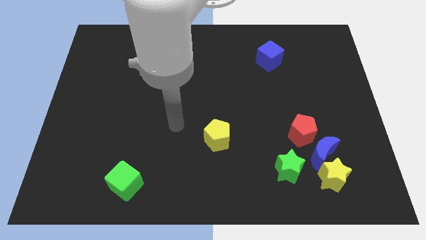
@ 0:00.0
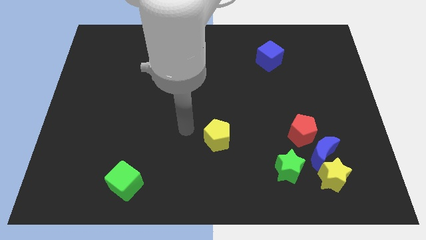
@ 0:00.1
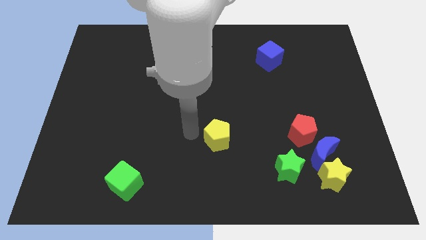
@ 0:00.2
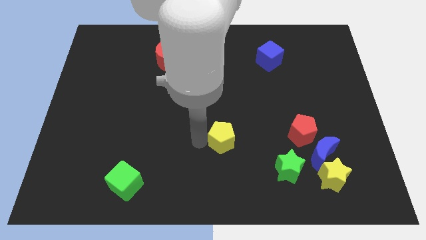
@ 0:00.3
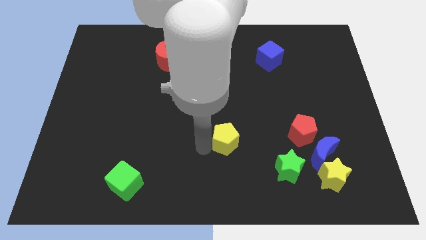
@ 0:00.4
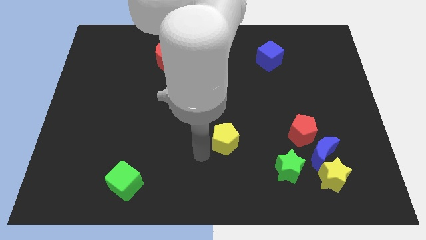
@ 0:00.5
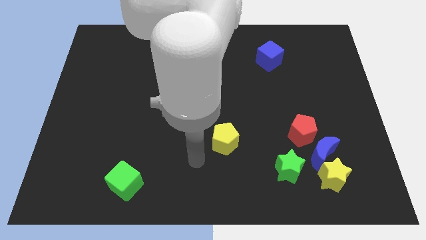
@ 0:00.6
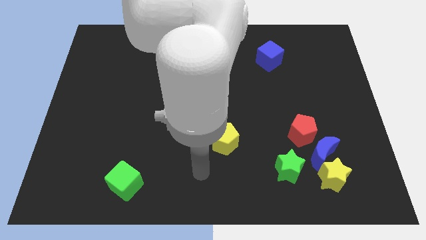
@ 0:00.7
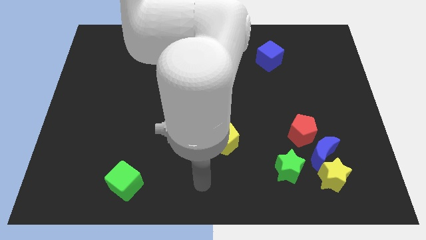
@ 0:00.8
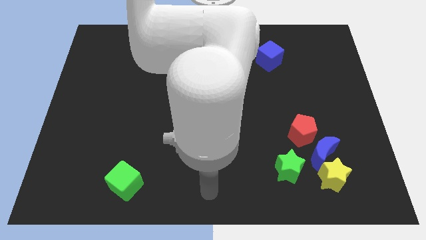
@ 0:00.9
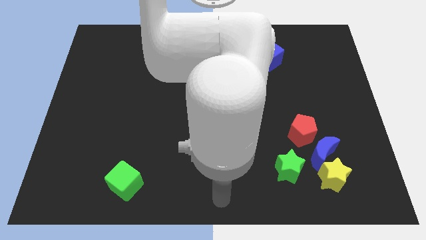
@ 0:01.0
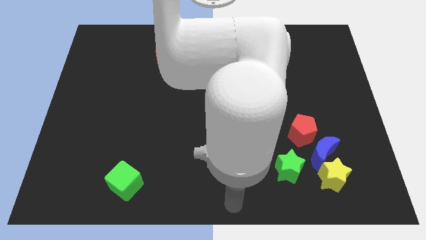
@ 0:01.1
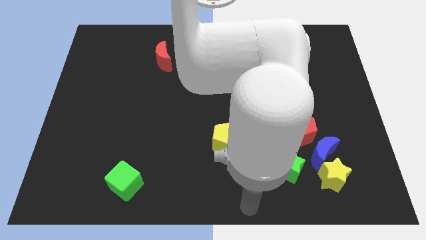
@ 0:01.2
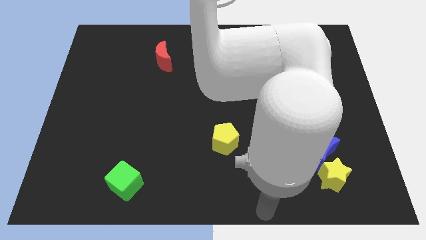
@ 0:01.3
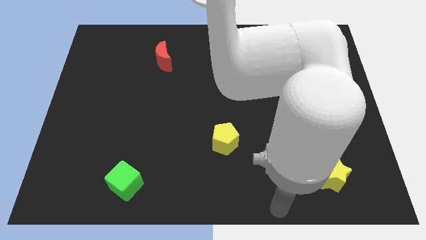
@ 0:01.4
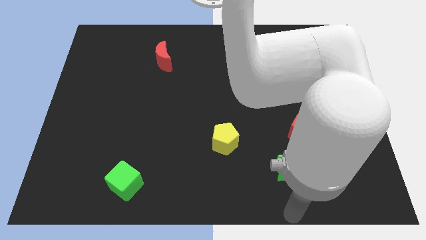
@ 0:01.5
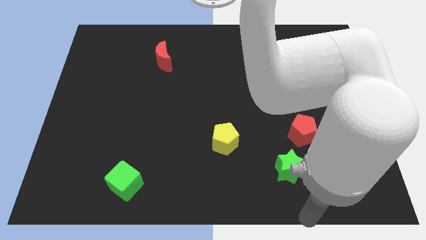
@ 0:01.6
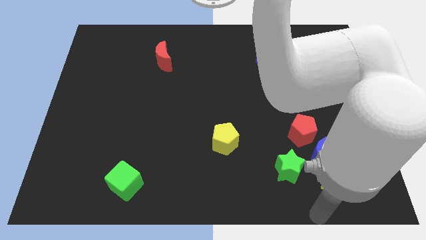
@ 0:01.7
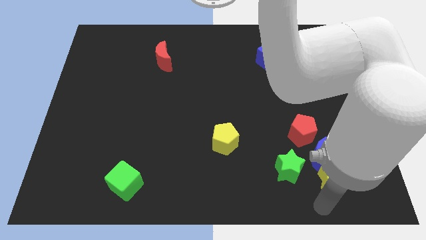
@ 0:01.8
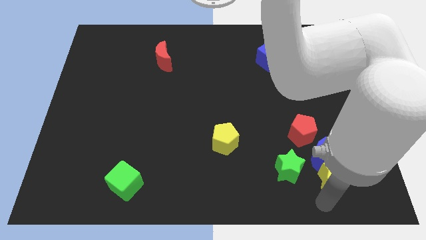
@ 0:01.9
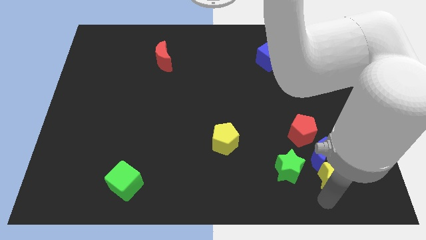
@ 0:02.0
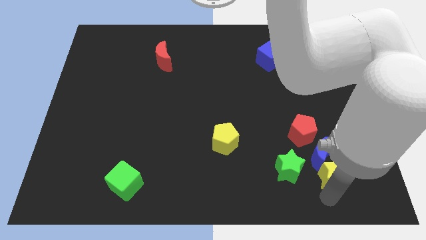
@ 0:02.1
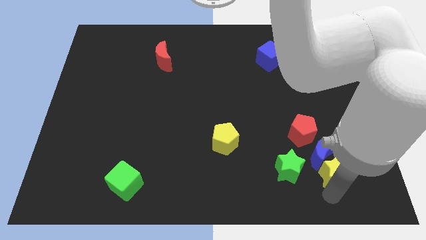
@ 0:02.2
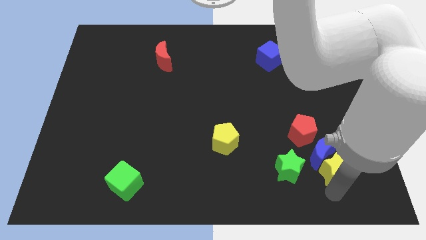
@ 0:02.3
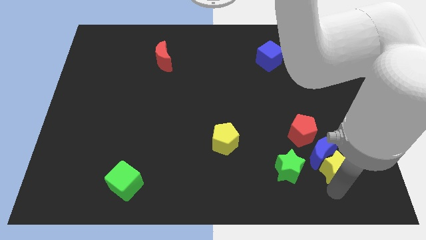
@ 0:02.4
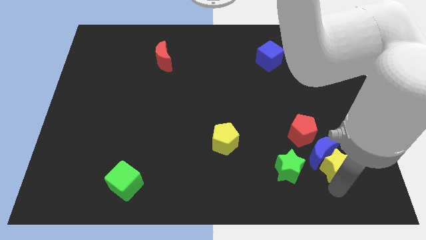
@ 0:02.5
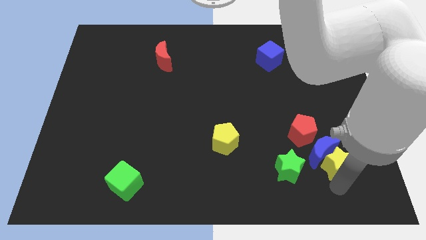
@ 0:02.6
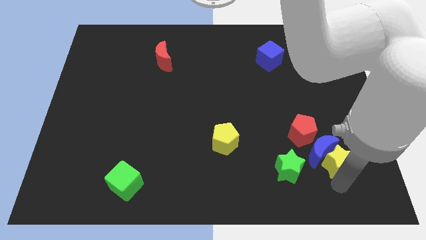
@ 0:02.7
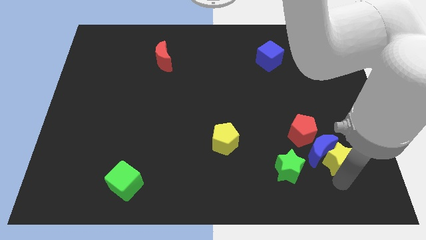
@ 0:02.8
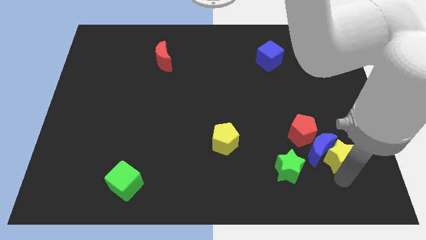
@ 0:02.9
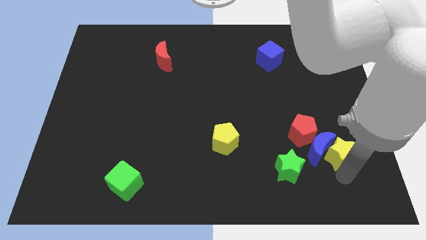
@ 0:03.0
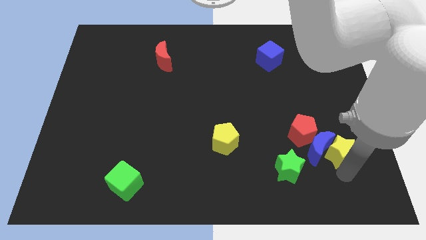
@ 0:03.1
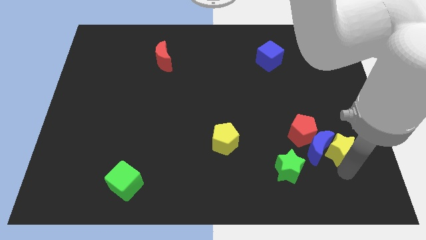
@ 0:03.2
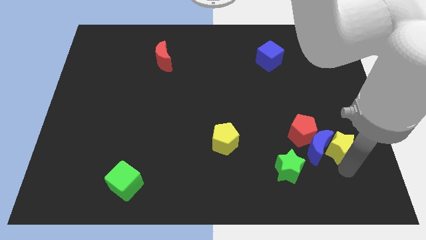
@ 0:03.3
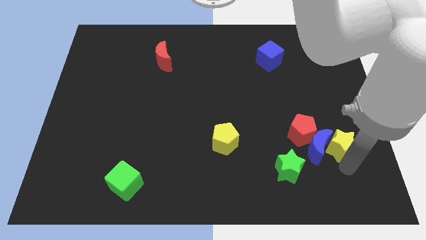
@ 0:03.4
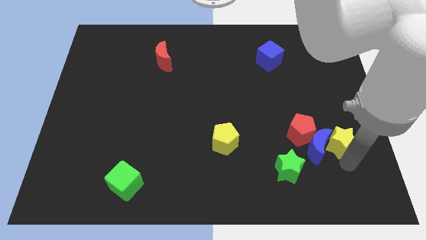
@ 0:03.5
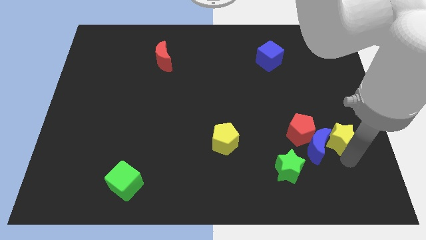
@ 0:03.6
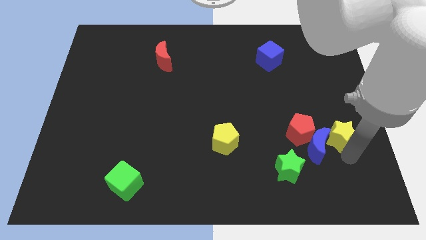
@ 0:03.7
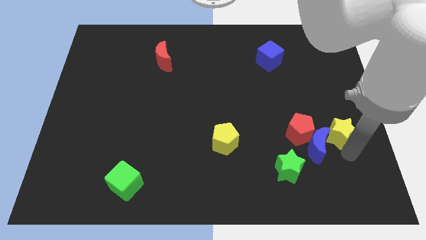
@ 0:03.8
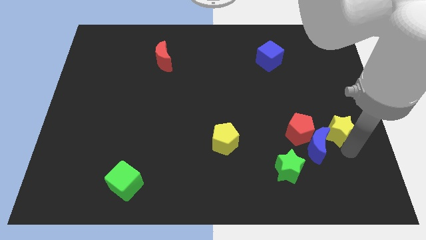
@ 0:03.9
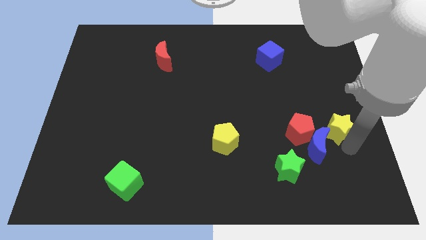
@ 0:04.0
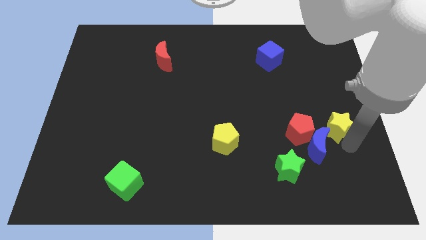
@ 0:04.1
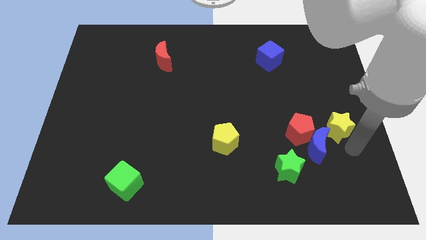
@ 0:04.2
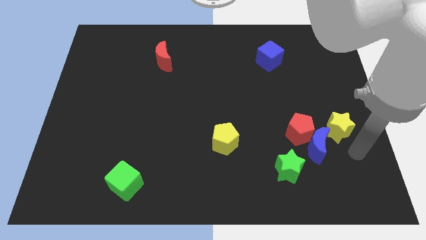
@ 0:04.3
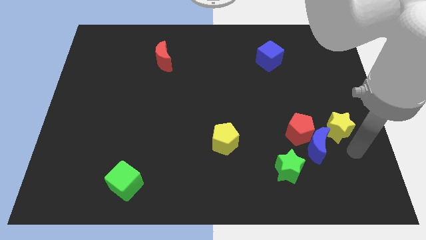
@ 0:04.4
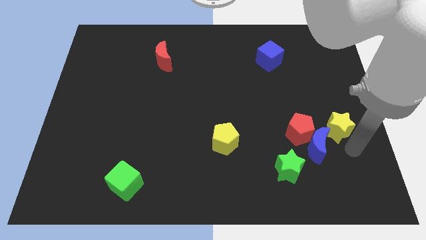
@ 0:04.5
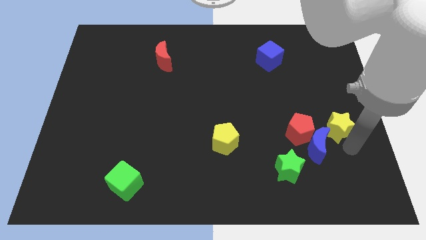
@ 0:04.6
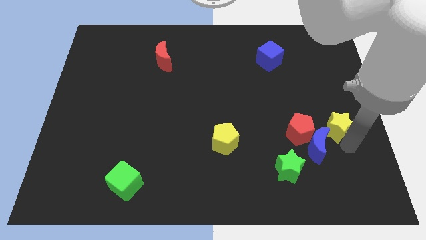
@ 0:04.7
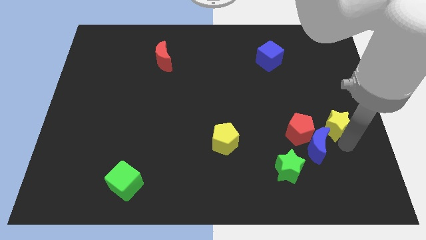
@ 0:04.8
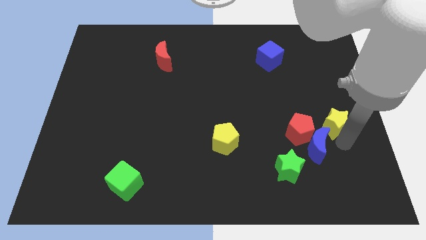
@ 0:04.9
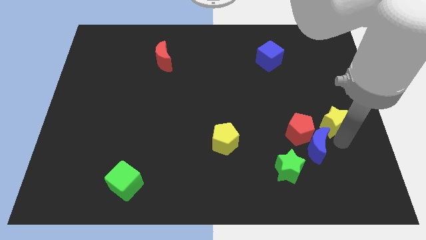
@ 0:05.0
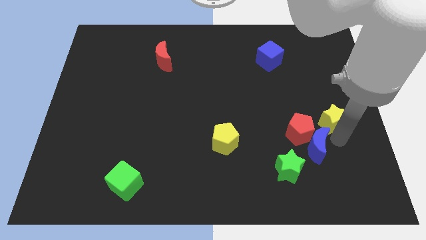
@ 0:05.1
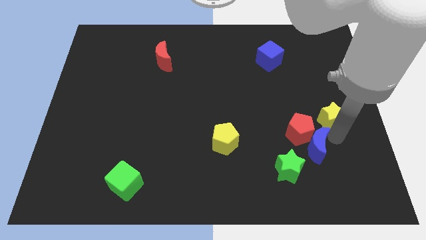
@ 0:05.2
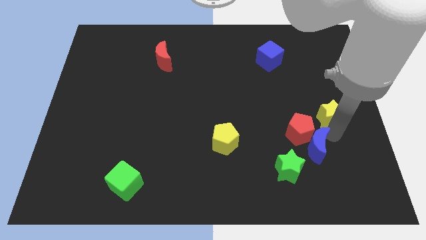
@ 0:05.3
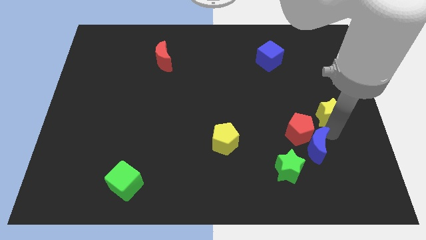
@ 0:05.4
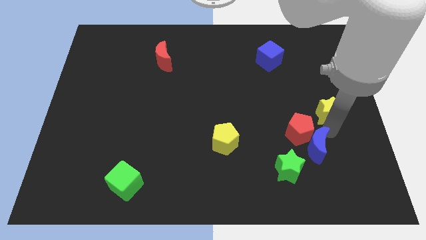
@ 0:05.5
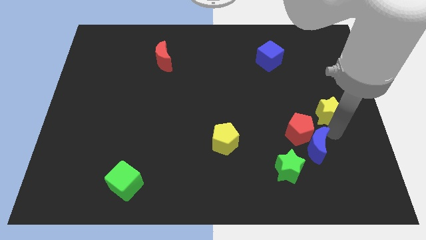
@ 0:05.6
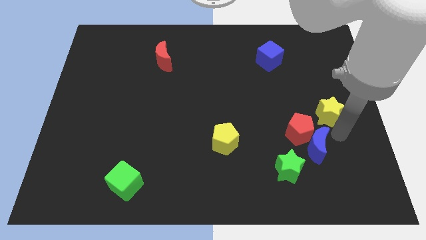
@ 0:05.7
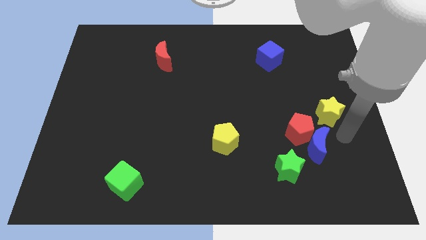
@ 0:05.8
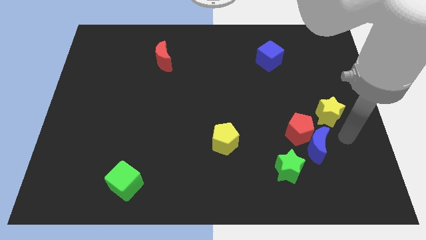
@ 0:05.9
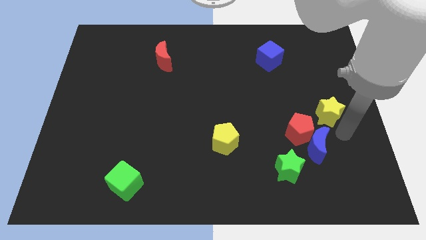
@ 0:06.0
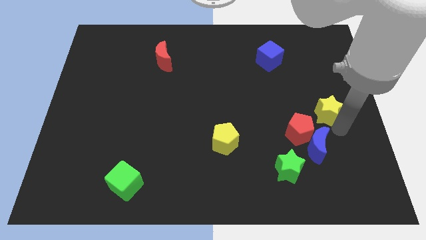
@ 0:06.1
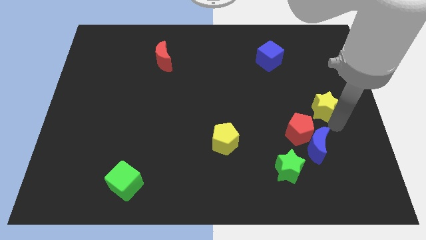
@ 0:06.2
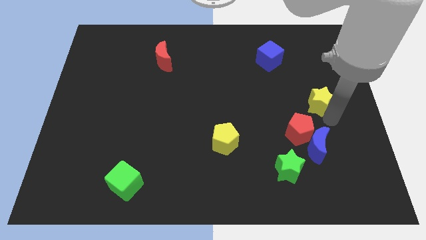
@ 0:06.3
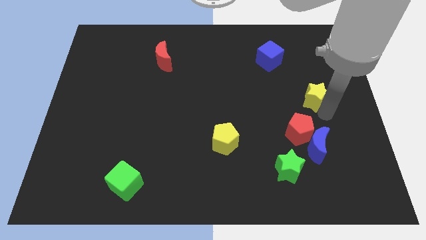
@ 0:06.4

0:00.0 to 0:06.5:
slide the yellow star upwards

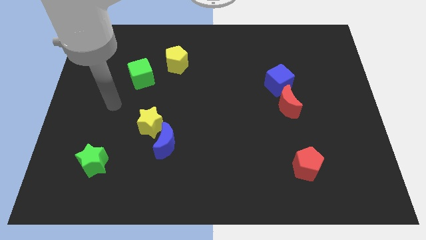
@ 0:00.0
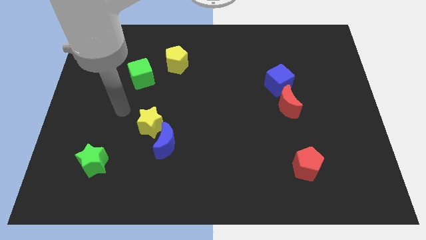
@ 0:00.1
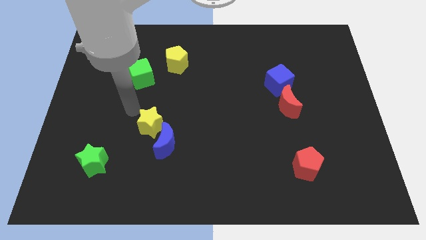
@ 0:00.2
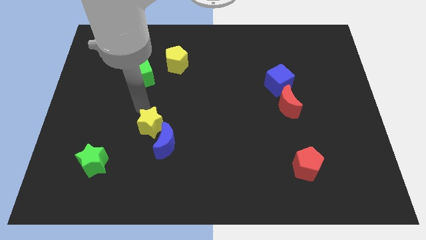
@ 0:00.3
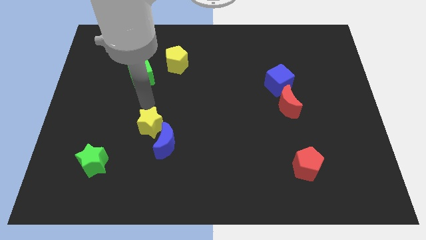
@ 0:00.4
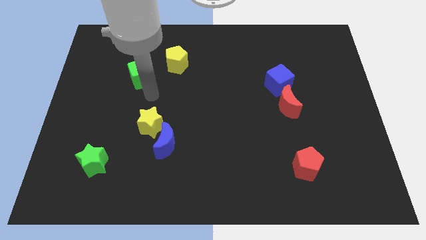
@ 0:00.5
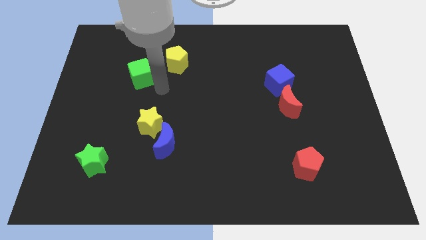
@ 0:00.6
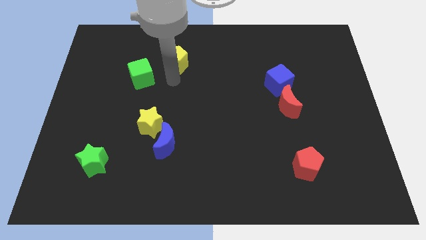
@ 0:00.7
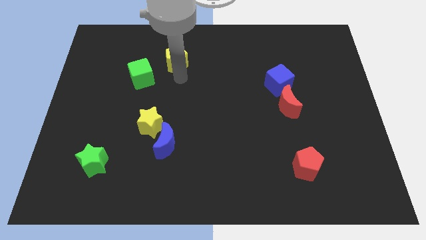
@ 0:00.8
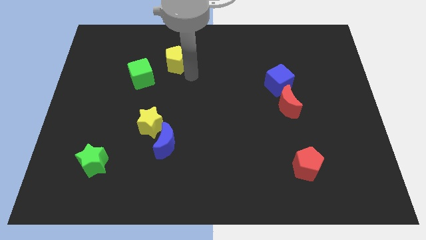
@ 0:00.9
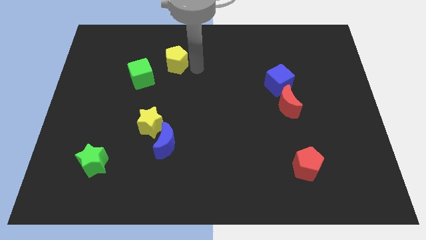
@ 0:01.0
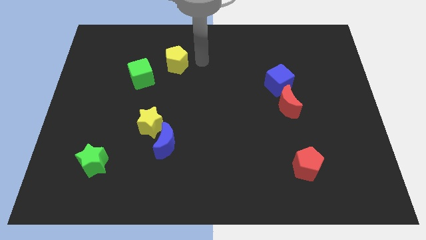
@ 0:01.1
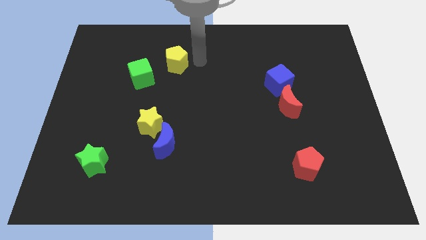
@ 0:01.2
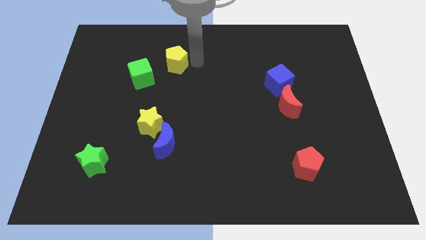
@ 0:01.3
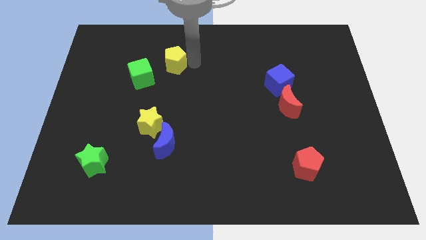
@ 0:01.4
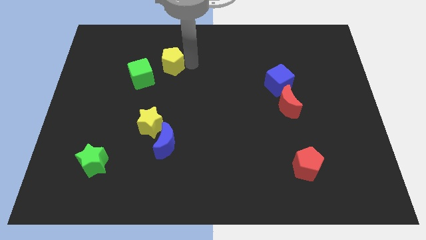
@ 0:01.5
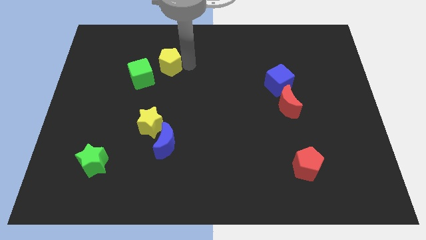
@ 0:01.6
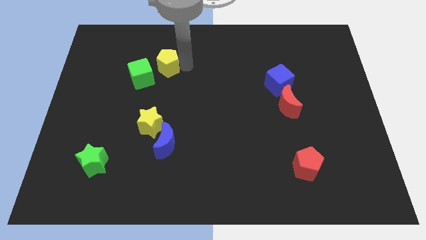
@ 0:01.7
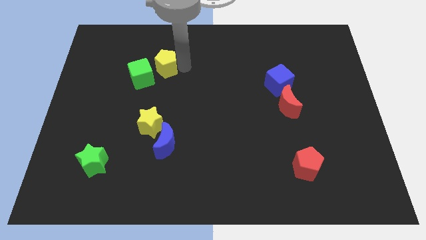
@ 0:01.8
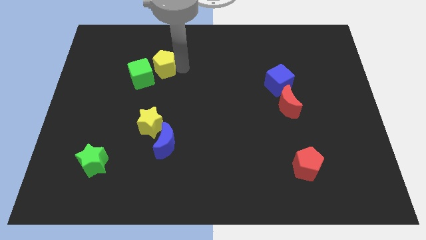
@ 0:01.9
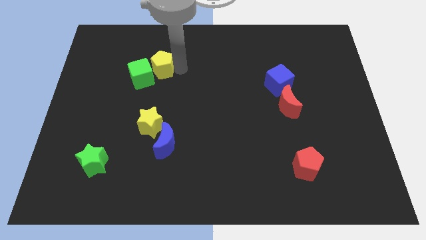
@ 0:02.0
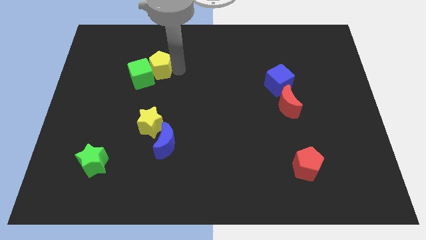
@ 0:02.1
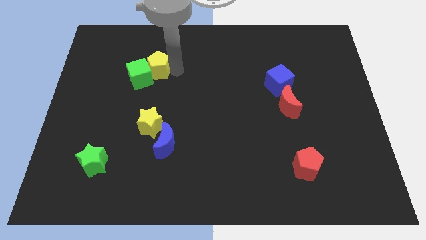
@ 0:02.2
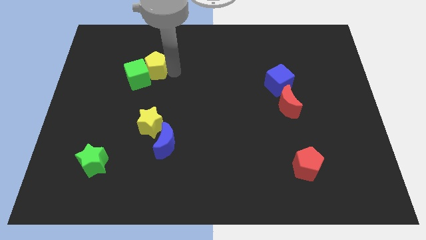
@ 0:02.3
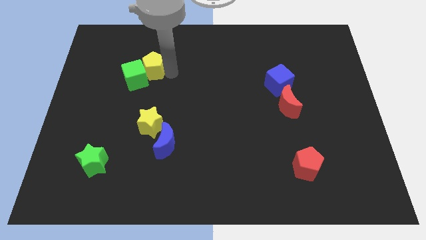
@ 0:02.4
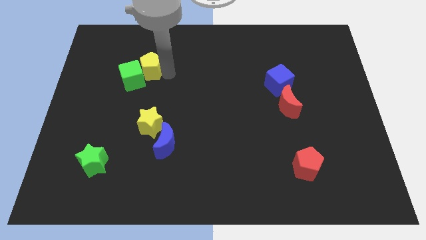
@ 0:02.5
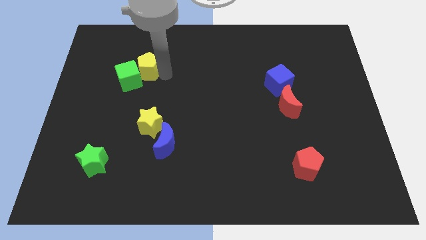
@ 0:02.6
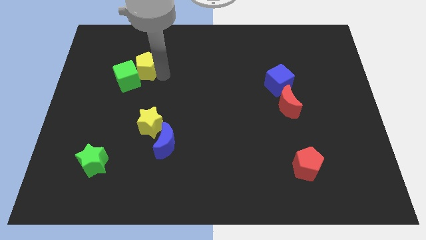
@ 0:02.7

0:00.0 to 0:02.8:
slide the yellow pentagon a bit to the left
